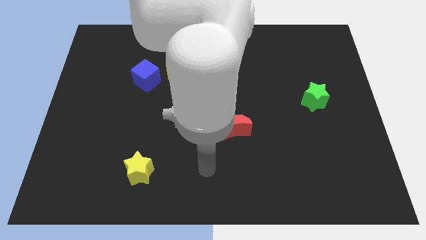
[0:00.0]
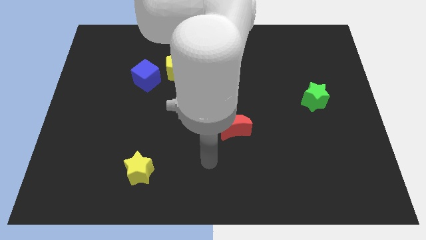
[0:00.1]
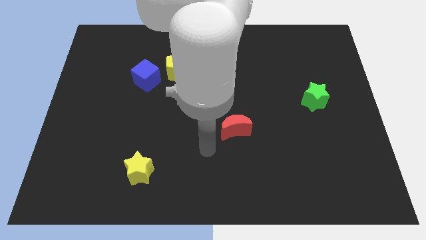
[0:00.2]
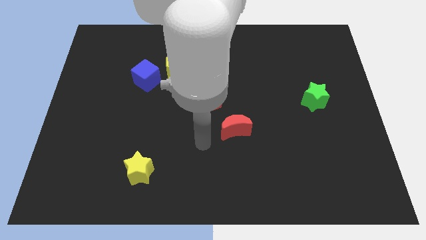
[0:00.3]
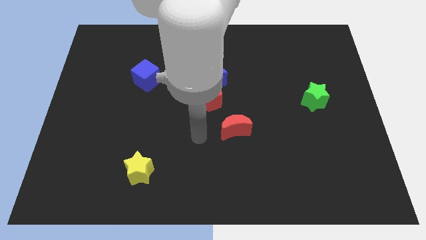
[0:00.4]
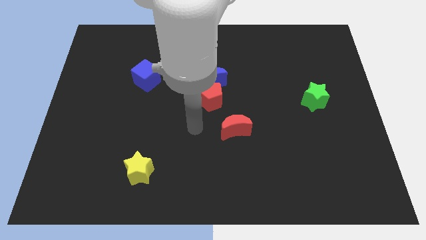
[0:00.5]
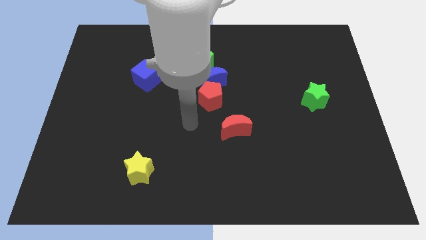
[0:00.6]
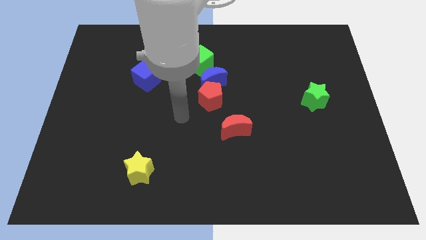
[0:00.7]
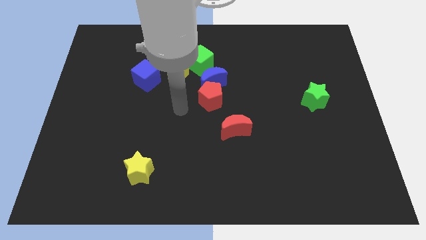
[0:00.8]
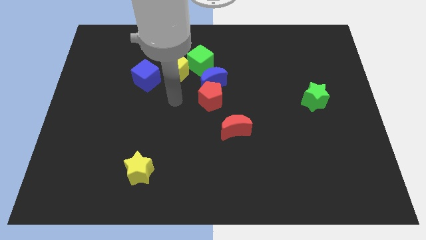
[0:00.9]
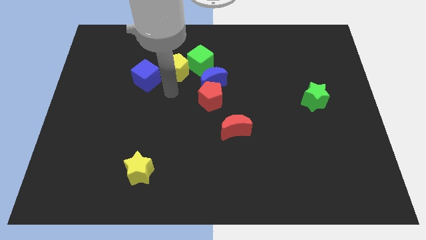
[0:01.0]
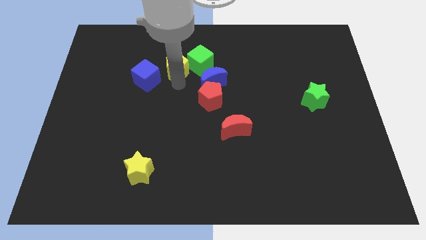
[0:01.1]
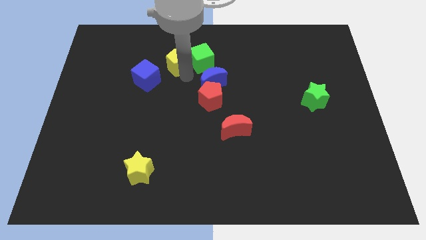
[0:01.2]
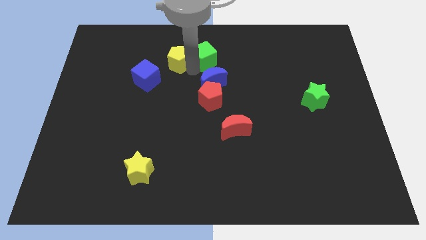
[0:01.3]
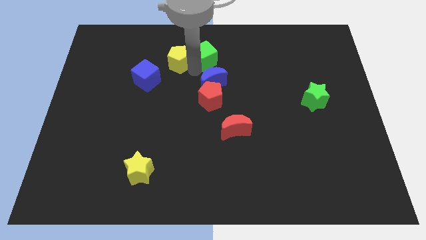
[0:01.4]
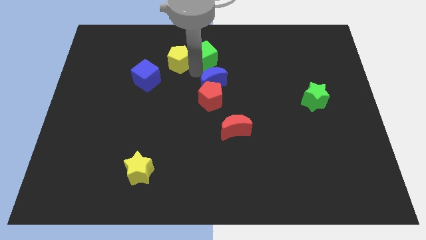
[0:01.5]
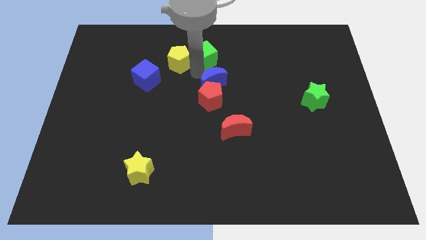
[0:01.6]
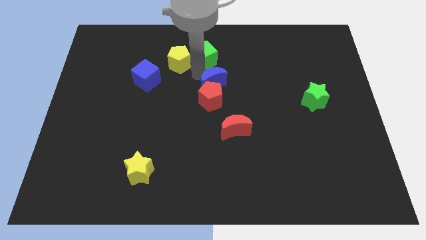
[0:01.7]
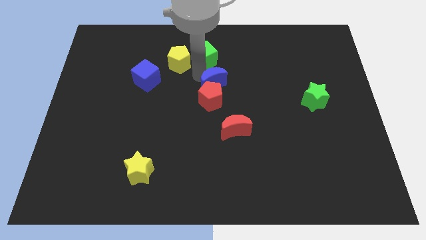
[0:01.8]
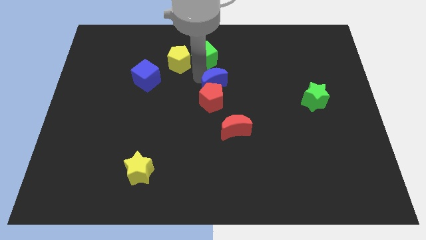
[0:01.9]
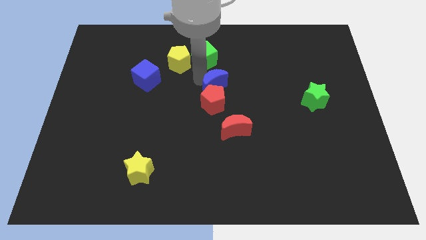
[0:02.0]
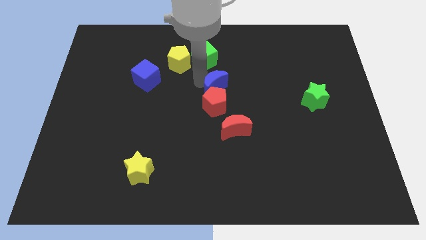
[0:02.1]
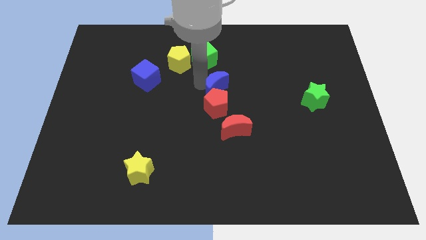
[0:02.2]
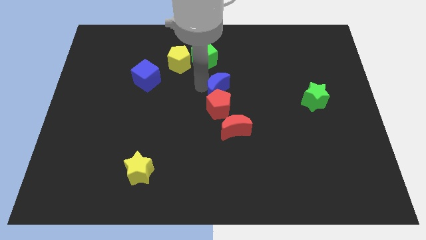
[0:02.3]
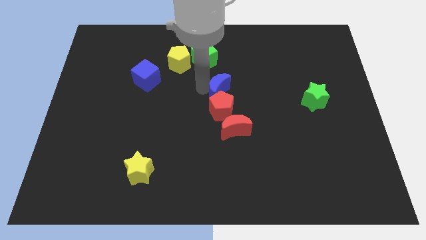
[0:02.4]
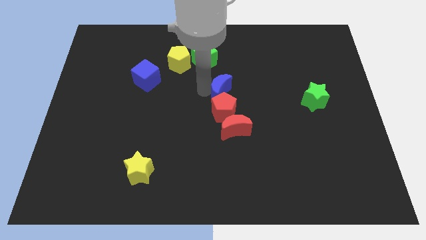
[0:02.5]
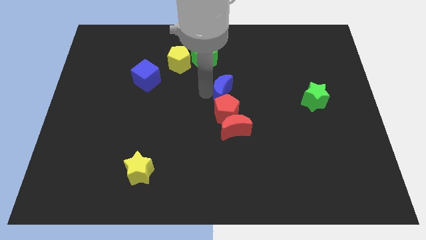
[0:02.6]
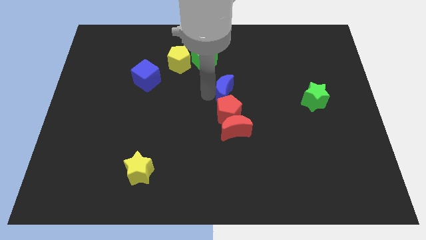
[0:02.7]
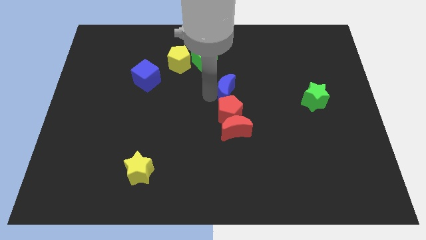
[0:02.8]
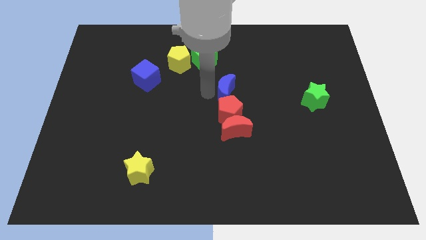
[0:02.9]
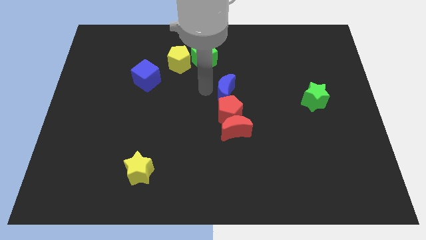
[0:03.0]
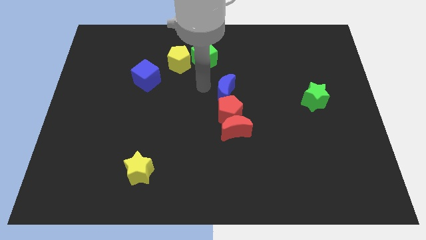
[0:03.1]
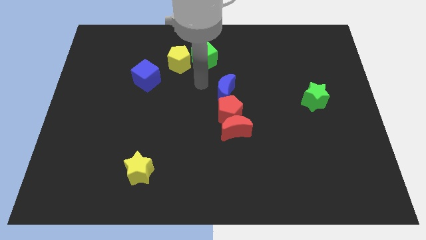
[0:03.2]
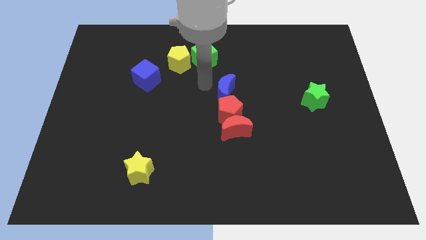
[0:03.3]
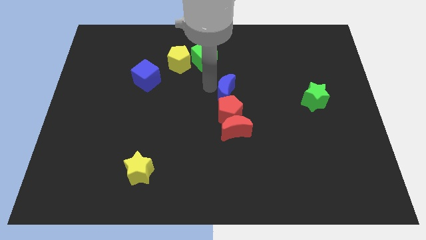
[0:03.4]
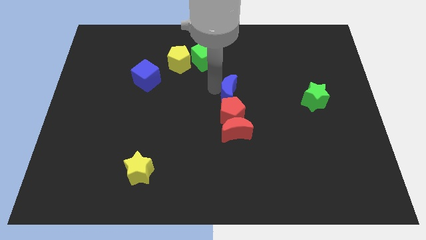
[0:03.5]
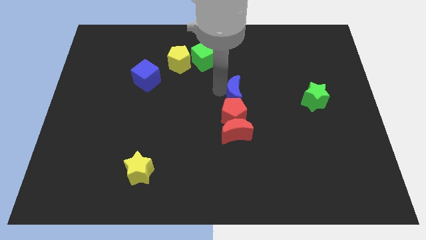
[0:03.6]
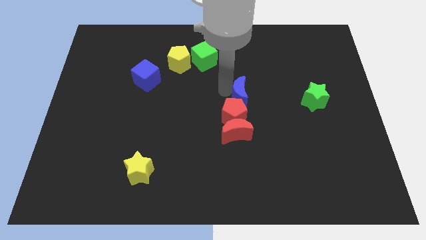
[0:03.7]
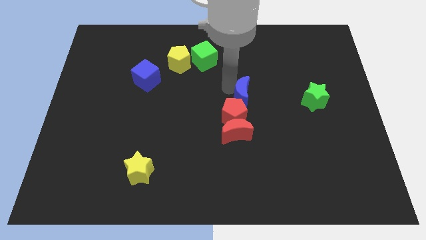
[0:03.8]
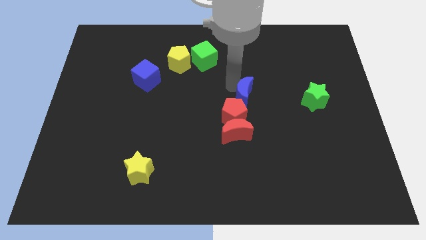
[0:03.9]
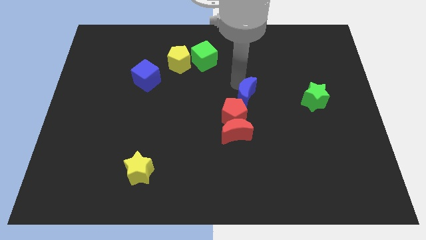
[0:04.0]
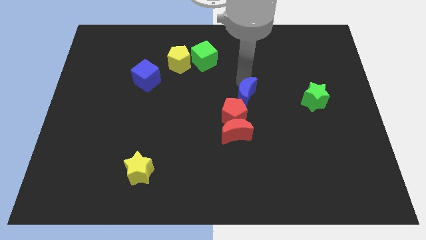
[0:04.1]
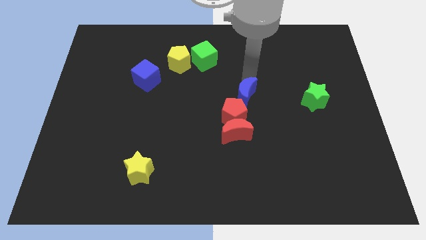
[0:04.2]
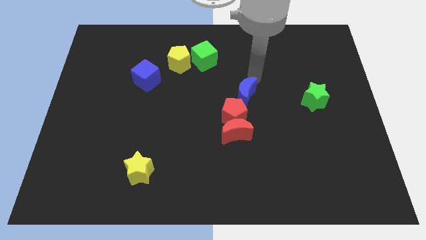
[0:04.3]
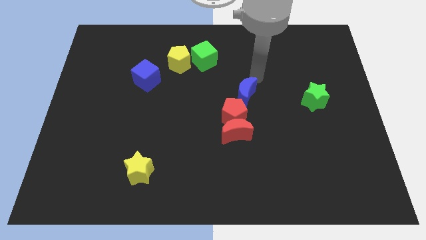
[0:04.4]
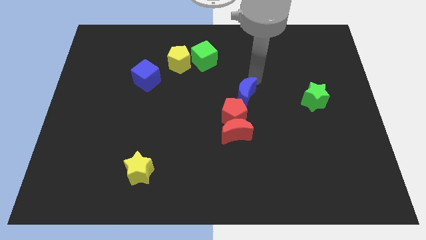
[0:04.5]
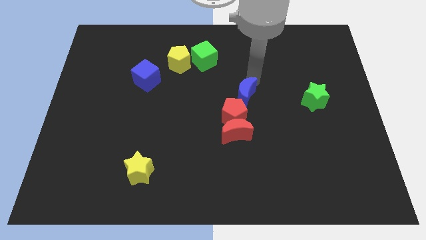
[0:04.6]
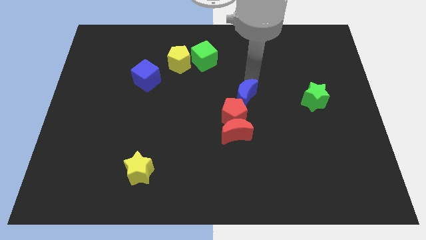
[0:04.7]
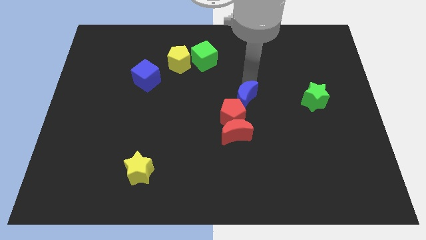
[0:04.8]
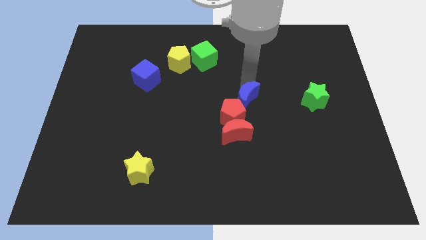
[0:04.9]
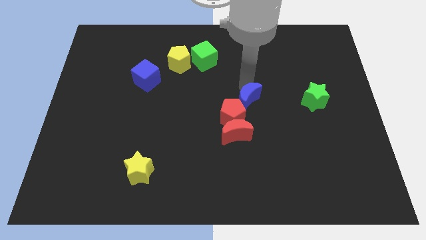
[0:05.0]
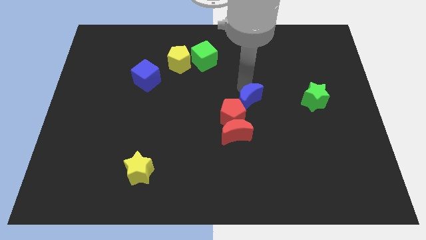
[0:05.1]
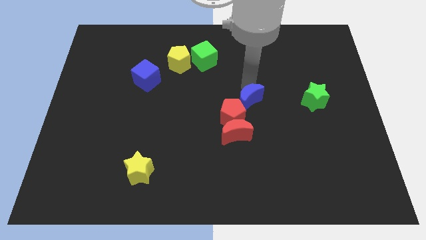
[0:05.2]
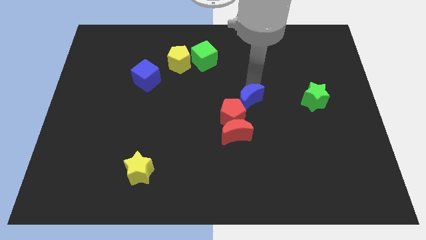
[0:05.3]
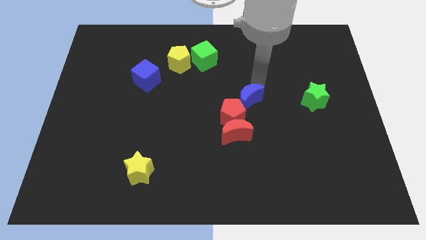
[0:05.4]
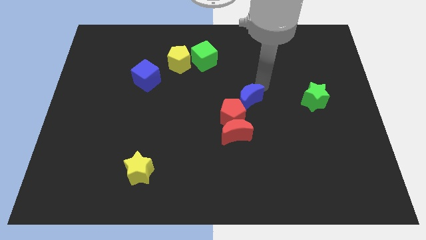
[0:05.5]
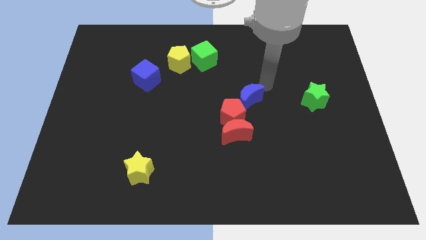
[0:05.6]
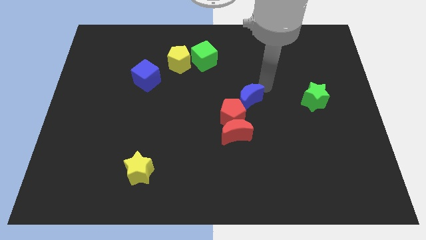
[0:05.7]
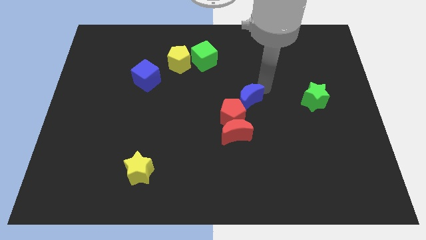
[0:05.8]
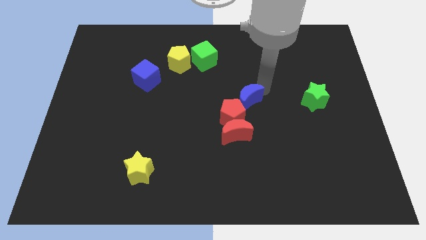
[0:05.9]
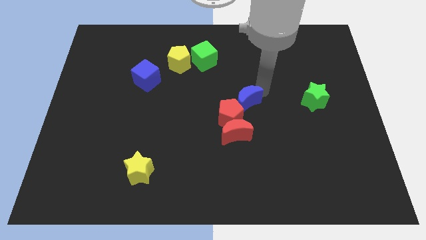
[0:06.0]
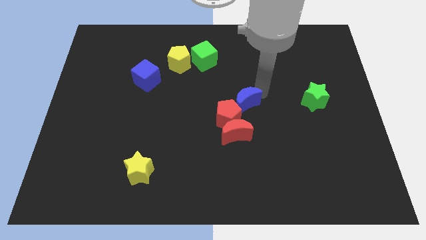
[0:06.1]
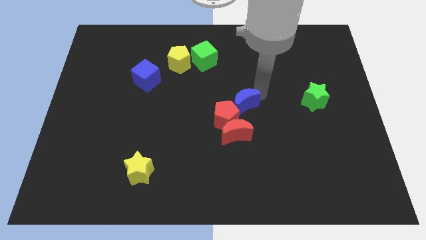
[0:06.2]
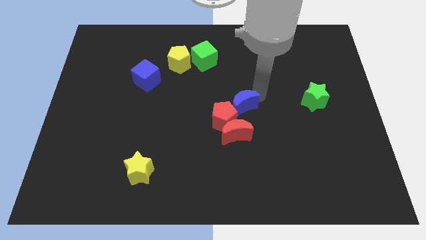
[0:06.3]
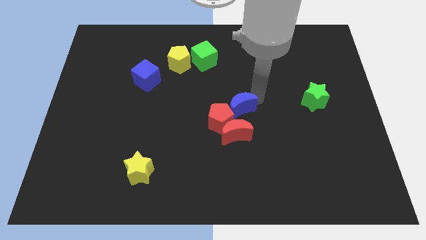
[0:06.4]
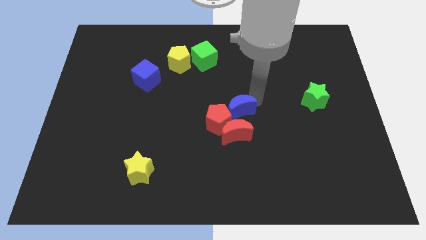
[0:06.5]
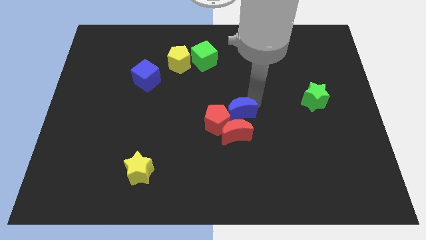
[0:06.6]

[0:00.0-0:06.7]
slide the blue moon next to the red moon
